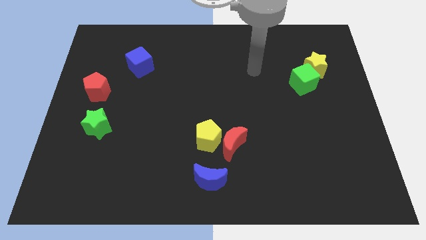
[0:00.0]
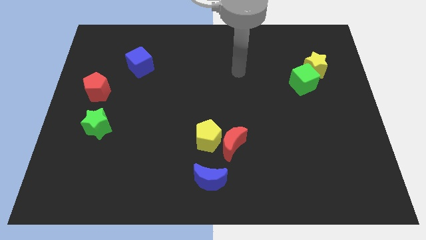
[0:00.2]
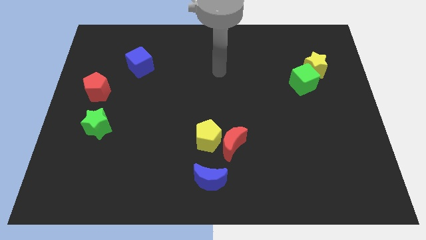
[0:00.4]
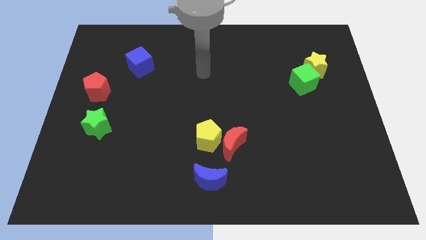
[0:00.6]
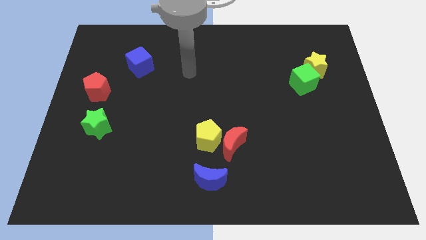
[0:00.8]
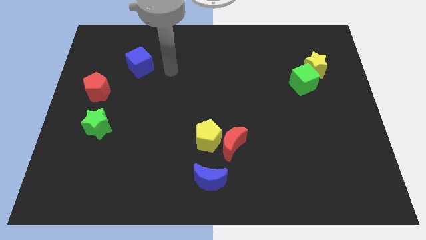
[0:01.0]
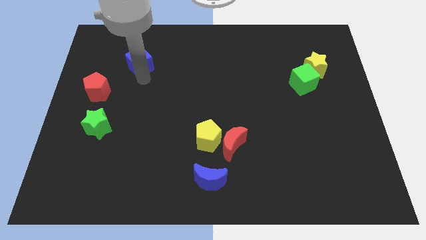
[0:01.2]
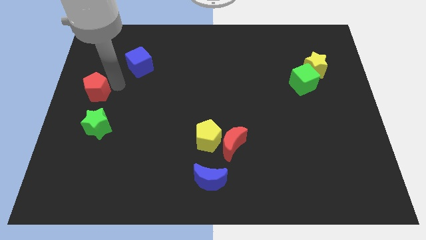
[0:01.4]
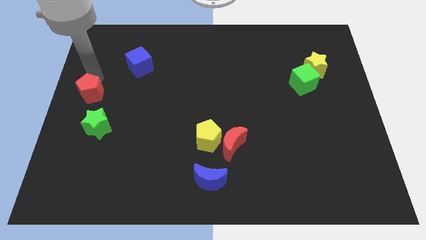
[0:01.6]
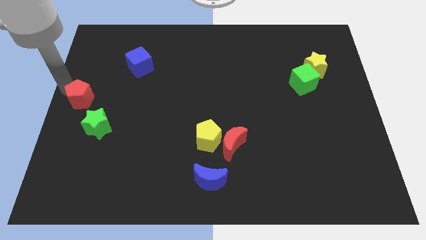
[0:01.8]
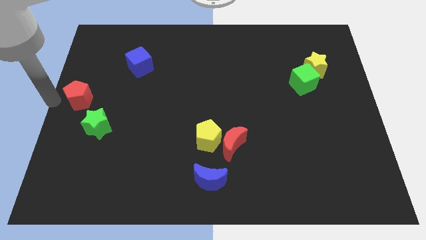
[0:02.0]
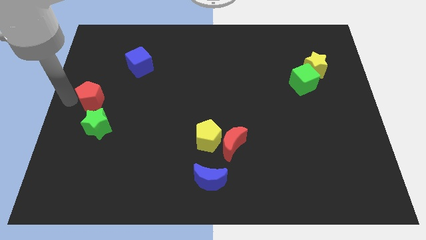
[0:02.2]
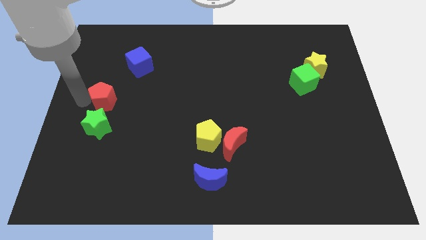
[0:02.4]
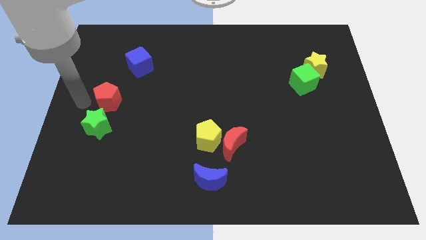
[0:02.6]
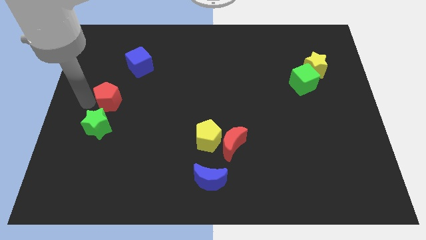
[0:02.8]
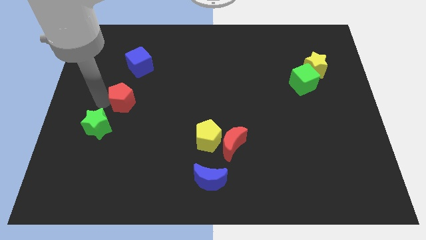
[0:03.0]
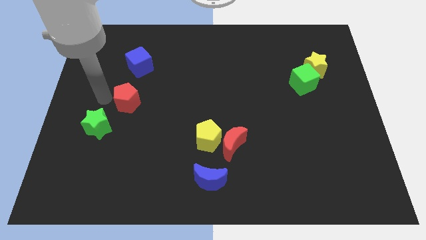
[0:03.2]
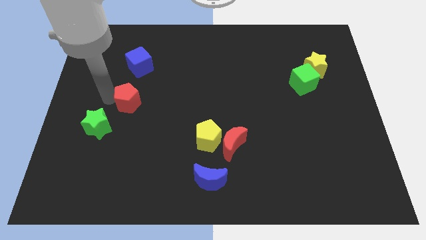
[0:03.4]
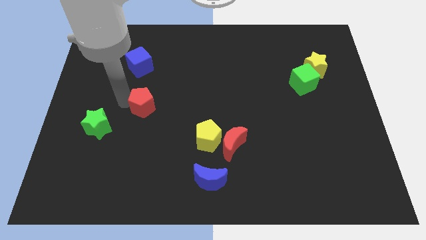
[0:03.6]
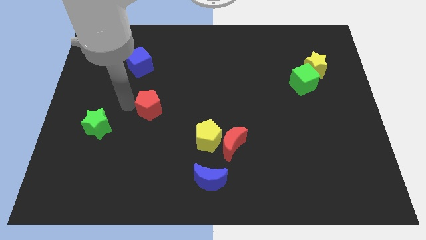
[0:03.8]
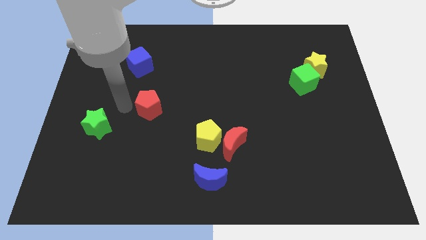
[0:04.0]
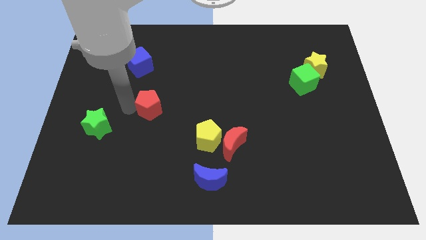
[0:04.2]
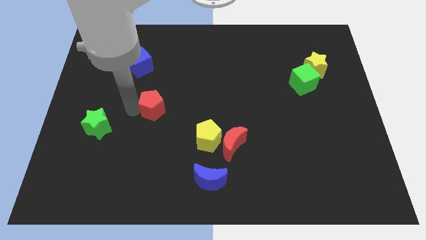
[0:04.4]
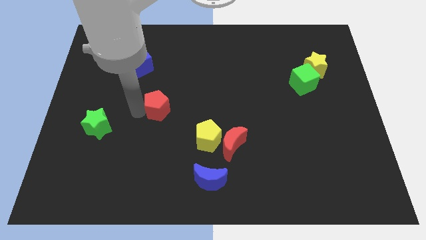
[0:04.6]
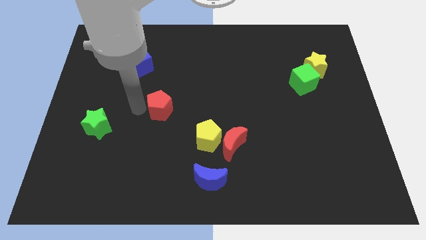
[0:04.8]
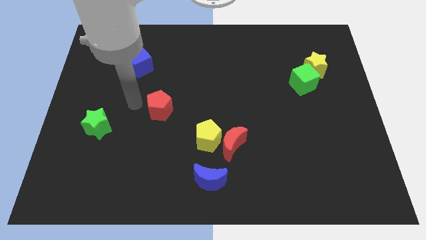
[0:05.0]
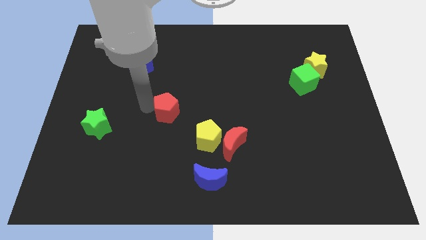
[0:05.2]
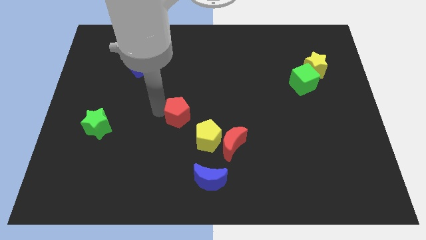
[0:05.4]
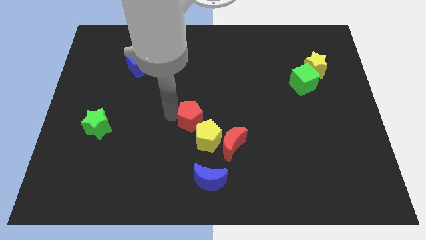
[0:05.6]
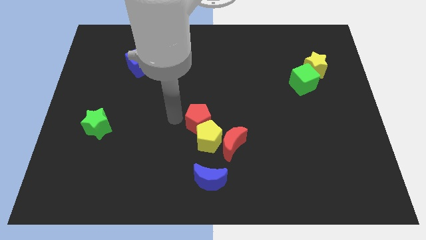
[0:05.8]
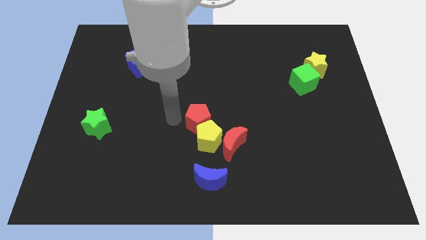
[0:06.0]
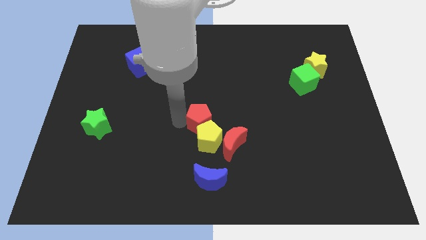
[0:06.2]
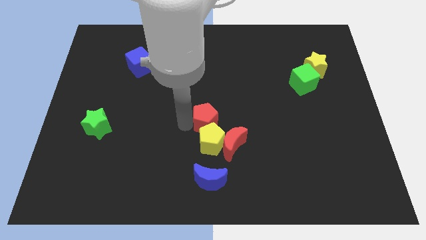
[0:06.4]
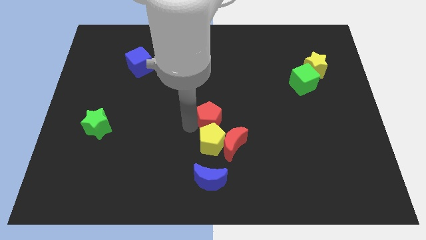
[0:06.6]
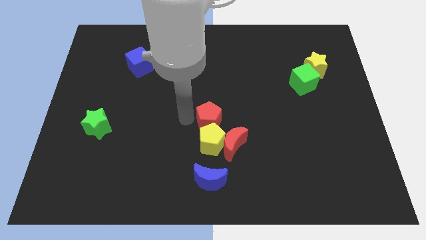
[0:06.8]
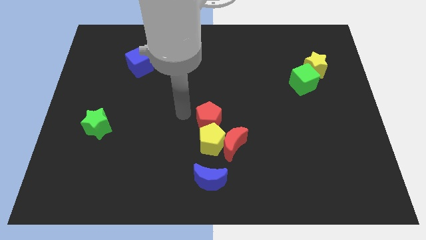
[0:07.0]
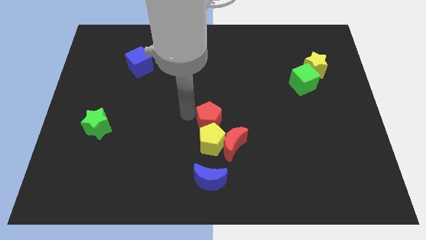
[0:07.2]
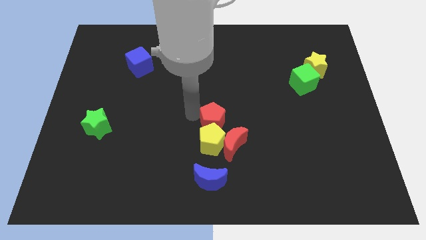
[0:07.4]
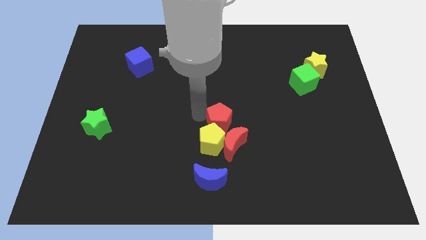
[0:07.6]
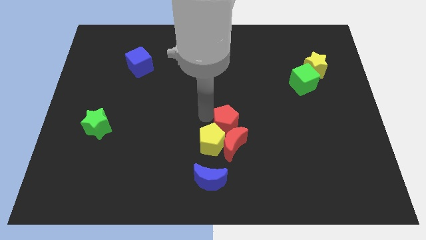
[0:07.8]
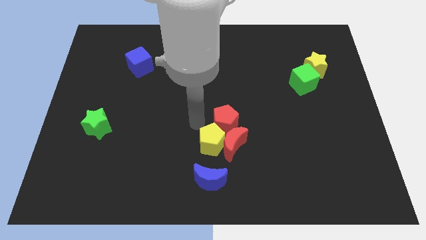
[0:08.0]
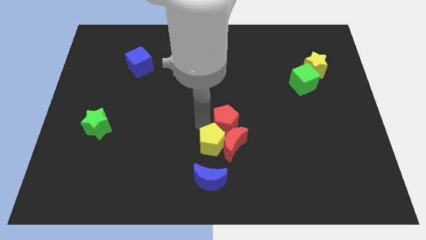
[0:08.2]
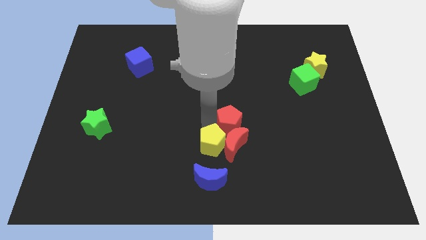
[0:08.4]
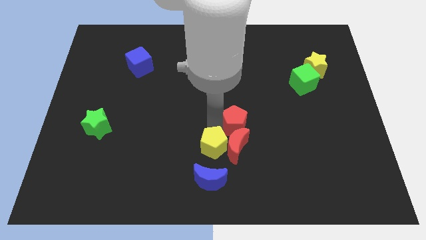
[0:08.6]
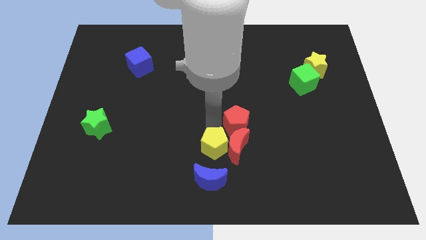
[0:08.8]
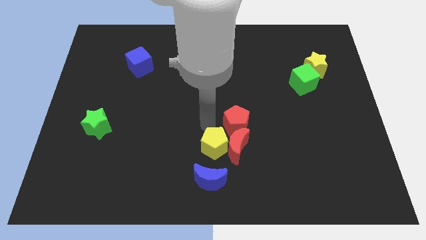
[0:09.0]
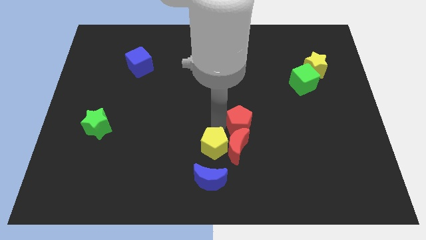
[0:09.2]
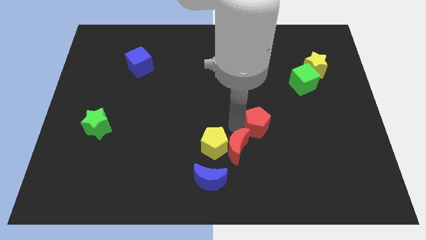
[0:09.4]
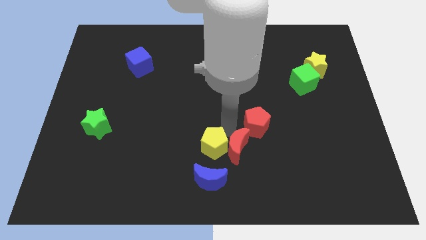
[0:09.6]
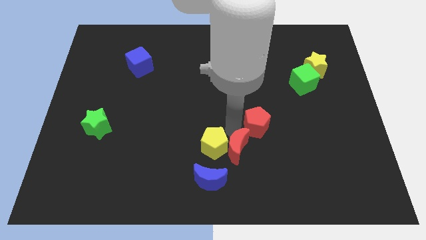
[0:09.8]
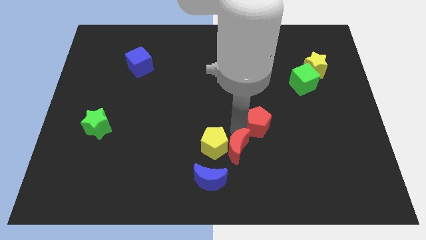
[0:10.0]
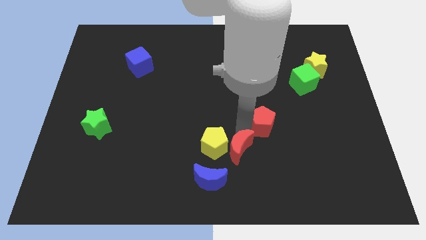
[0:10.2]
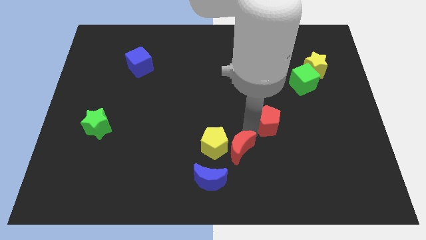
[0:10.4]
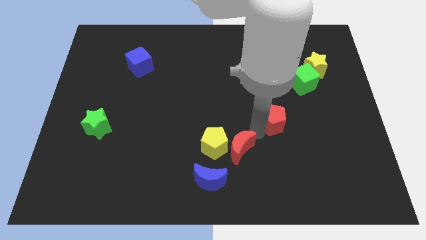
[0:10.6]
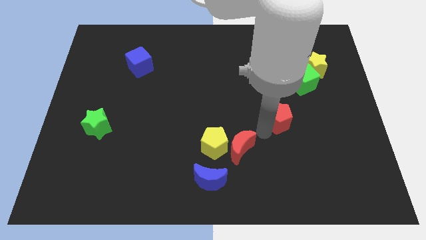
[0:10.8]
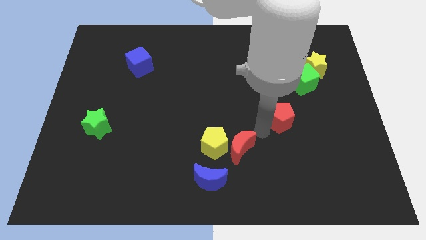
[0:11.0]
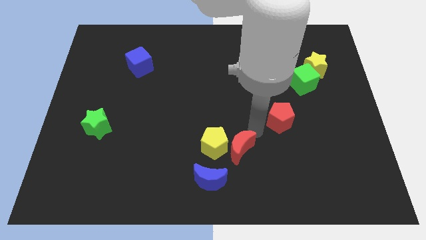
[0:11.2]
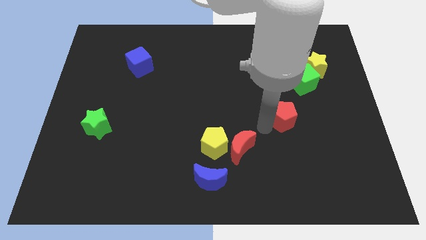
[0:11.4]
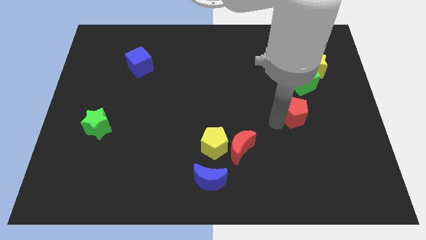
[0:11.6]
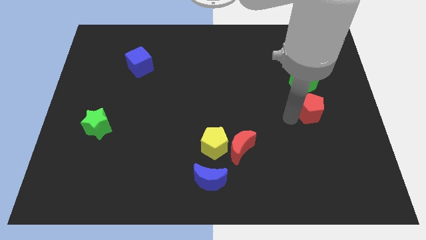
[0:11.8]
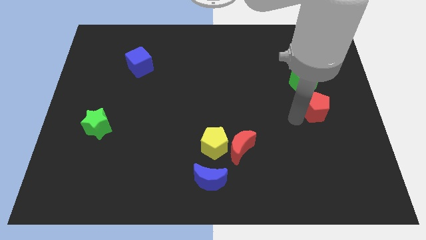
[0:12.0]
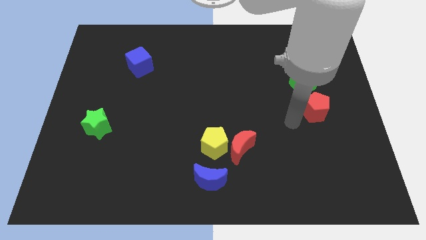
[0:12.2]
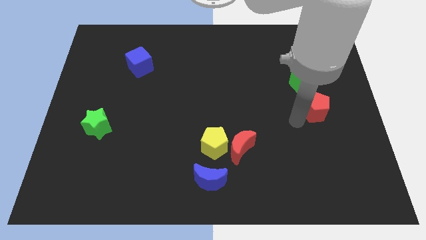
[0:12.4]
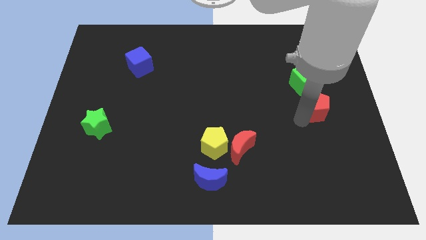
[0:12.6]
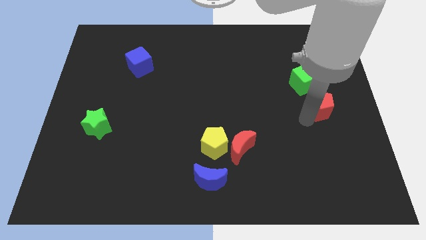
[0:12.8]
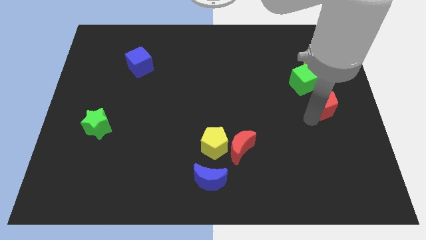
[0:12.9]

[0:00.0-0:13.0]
move the red pentagon to the right side
